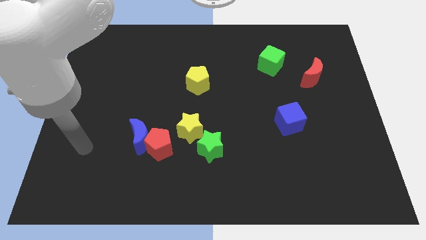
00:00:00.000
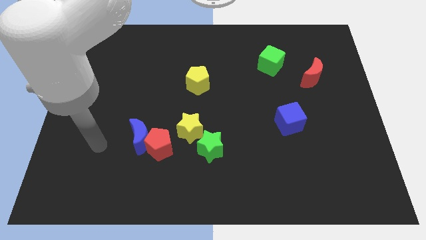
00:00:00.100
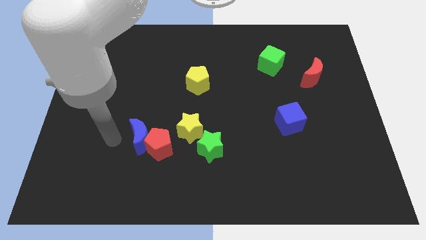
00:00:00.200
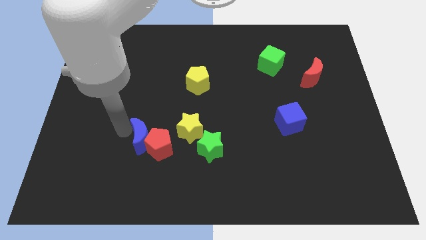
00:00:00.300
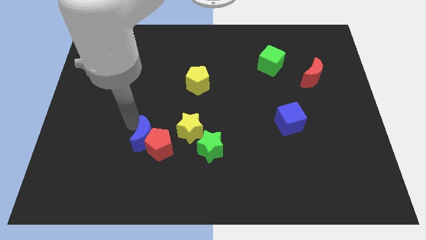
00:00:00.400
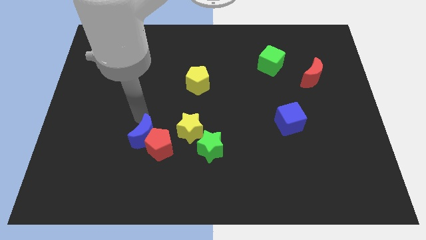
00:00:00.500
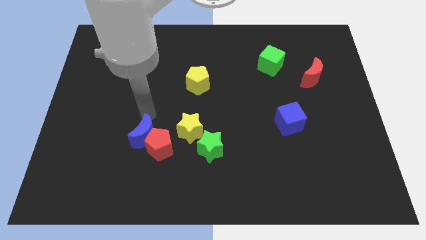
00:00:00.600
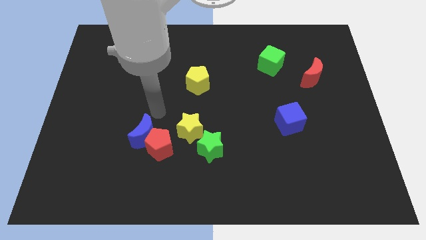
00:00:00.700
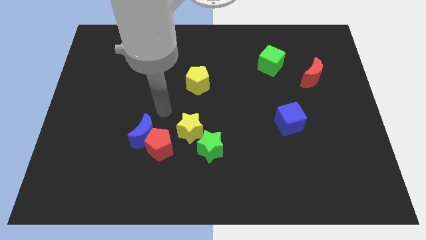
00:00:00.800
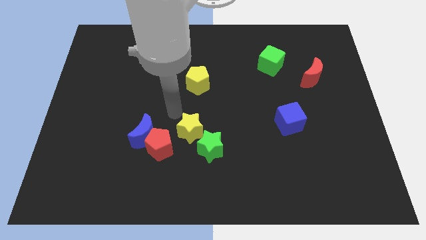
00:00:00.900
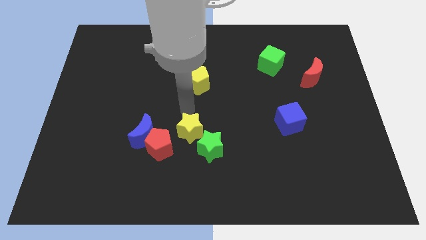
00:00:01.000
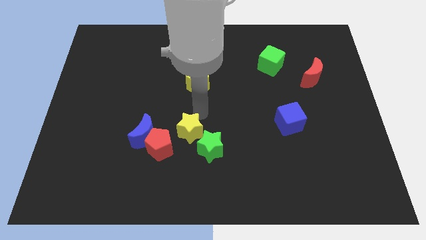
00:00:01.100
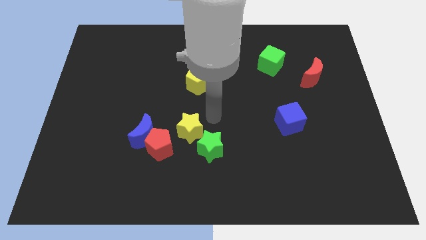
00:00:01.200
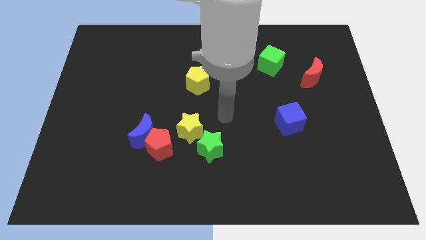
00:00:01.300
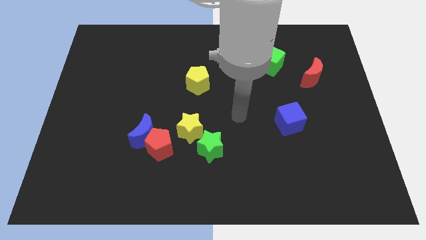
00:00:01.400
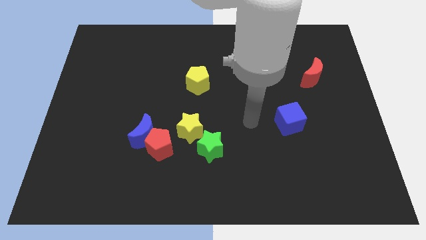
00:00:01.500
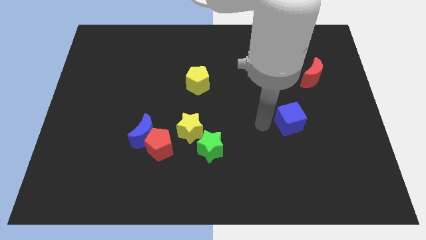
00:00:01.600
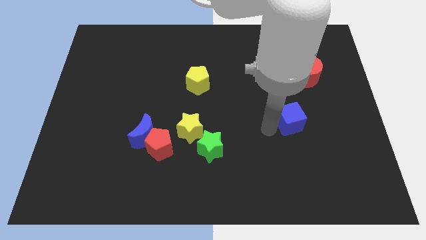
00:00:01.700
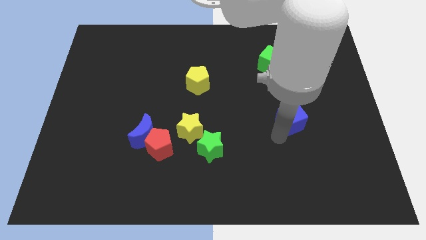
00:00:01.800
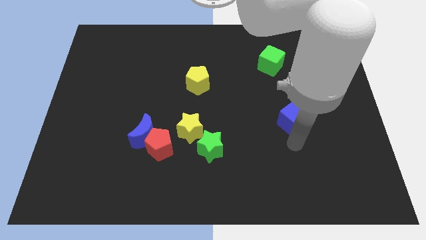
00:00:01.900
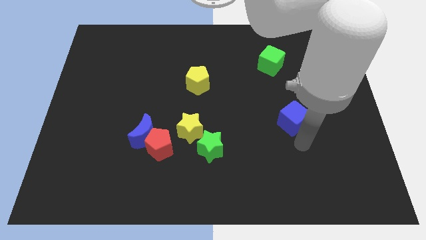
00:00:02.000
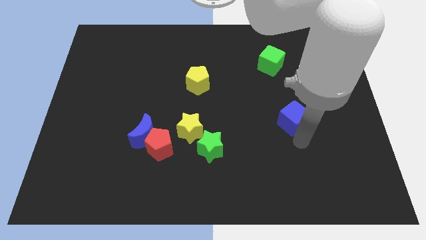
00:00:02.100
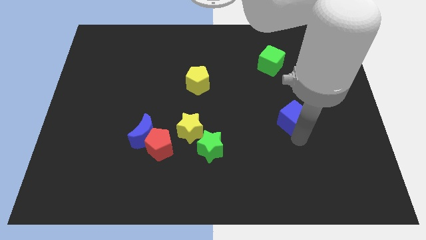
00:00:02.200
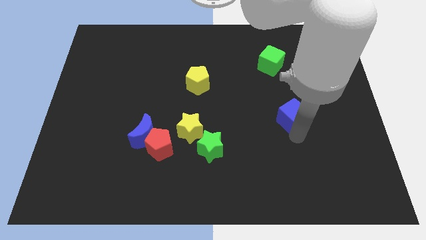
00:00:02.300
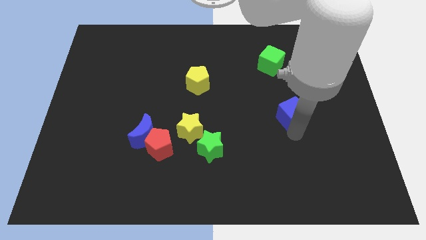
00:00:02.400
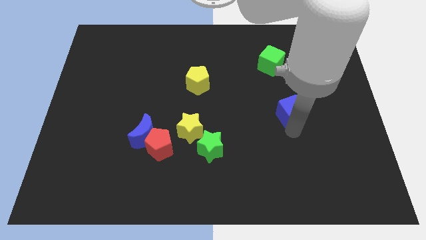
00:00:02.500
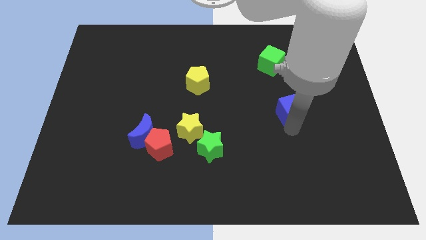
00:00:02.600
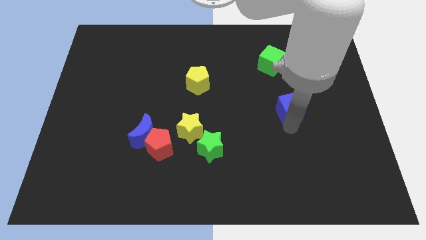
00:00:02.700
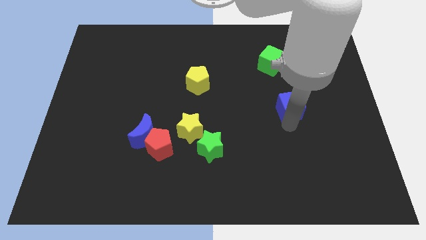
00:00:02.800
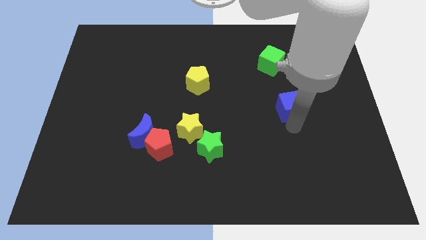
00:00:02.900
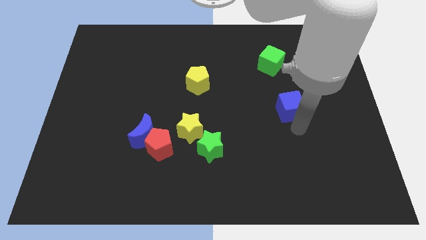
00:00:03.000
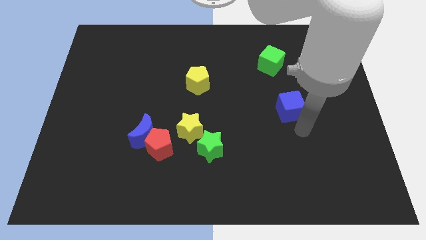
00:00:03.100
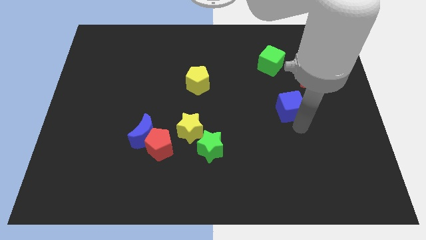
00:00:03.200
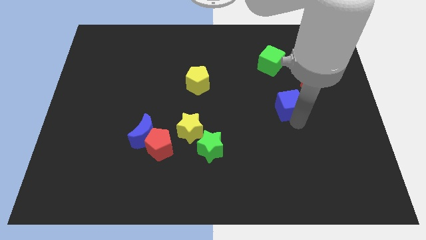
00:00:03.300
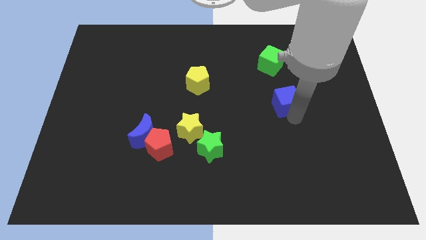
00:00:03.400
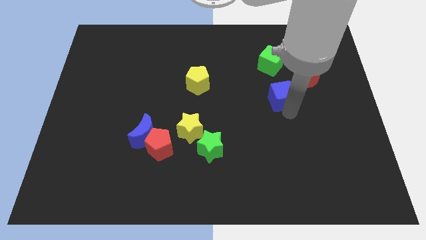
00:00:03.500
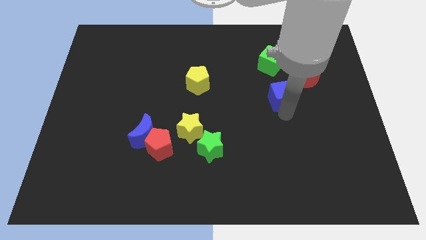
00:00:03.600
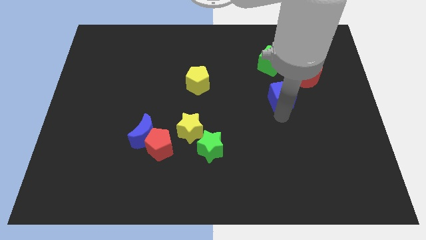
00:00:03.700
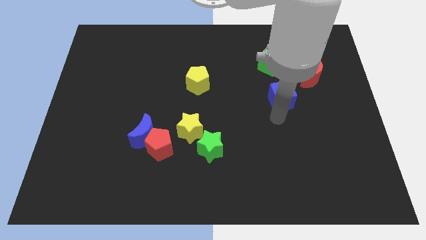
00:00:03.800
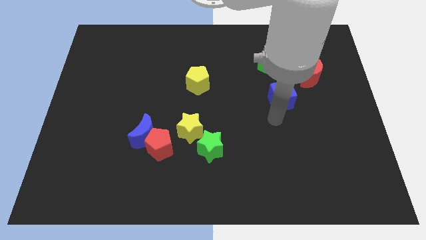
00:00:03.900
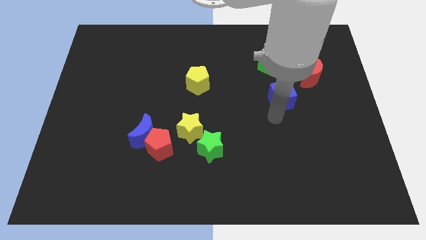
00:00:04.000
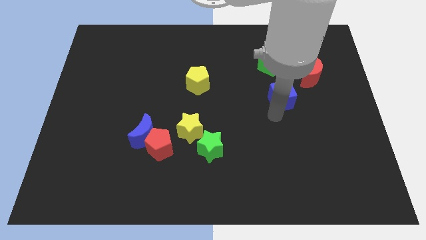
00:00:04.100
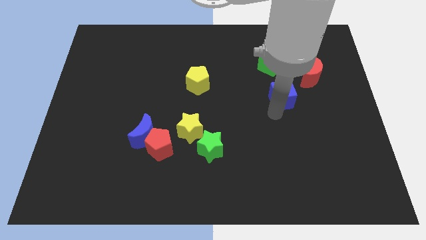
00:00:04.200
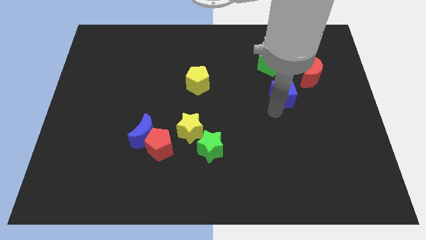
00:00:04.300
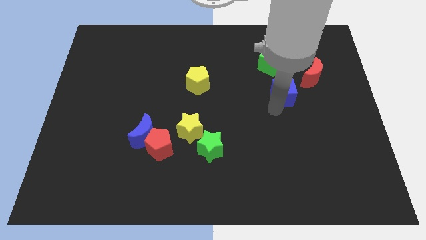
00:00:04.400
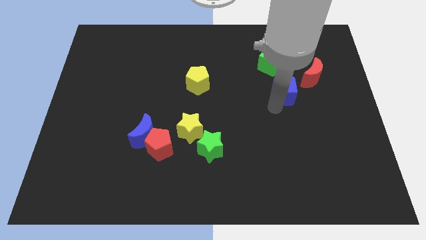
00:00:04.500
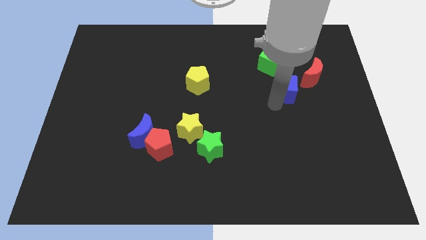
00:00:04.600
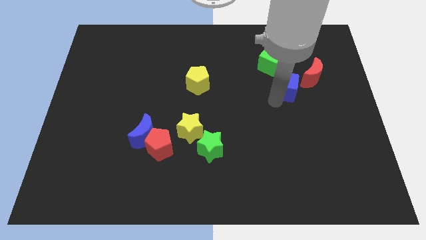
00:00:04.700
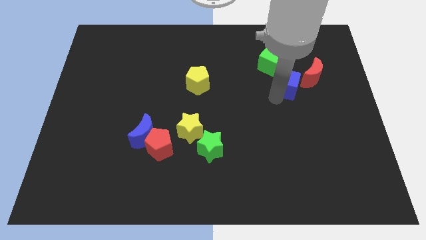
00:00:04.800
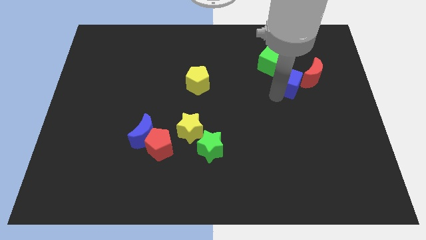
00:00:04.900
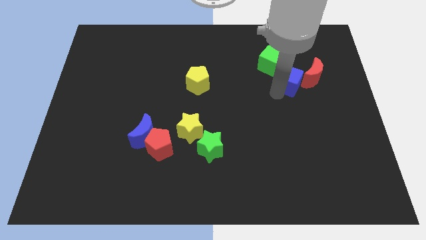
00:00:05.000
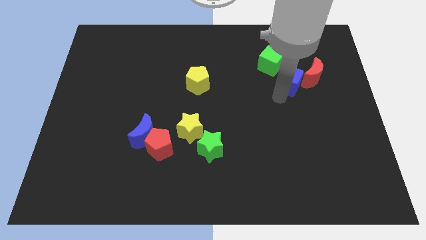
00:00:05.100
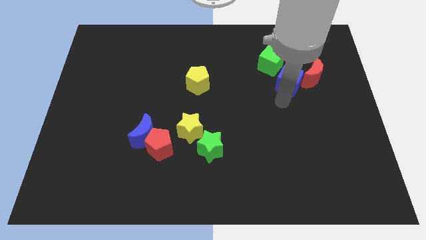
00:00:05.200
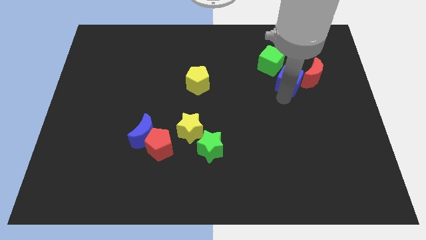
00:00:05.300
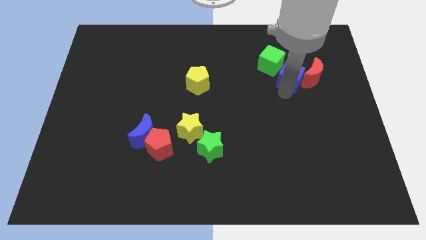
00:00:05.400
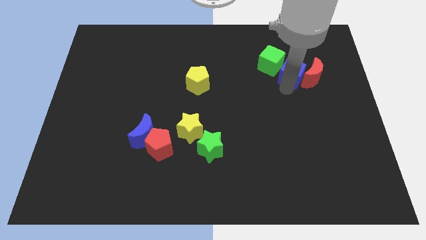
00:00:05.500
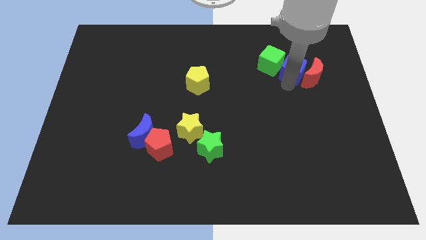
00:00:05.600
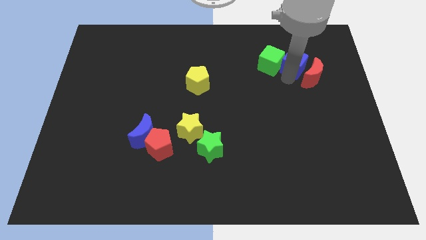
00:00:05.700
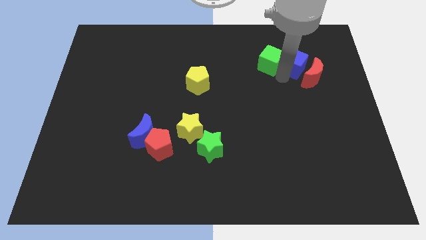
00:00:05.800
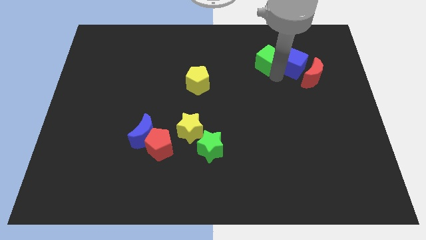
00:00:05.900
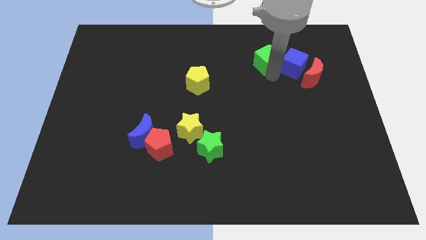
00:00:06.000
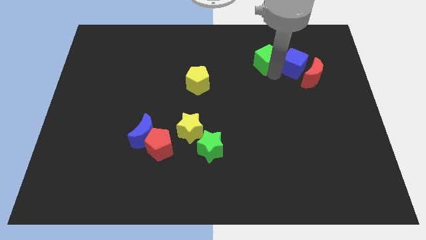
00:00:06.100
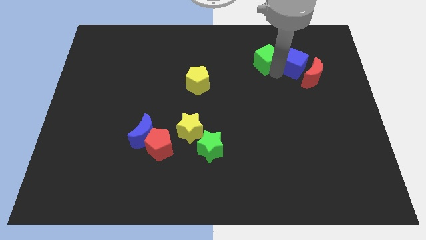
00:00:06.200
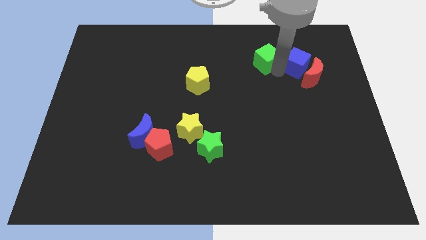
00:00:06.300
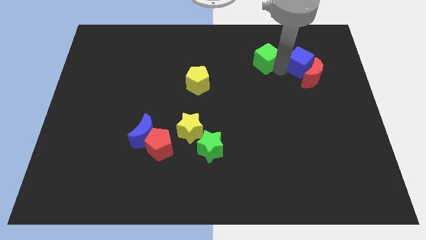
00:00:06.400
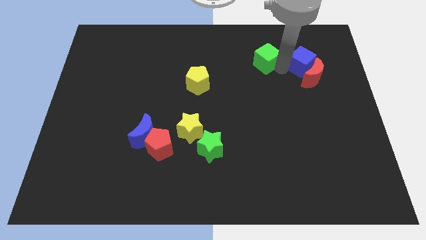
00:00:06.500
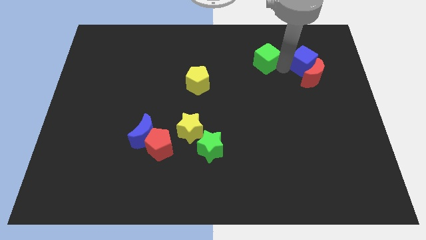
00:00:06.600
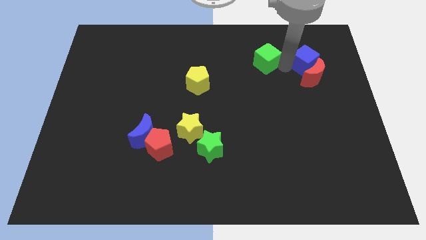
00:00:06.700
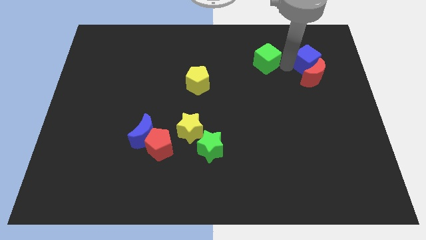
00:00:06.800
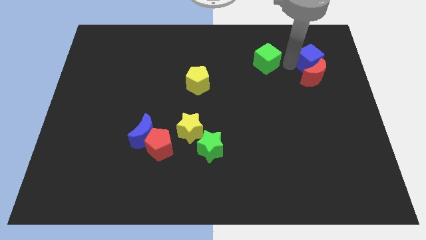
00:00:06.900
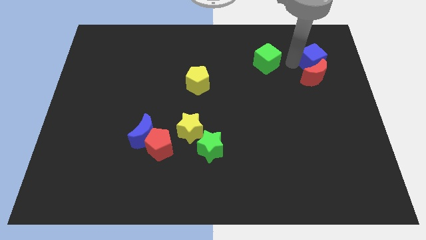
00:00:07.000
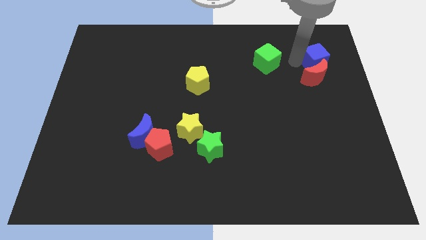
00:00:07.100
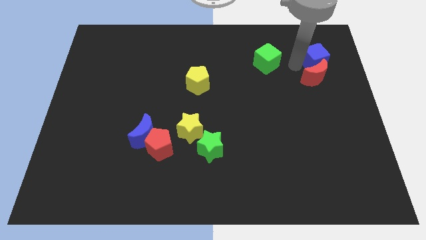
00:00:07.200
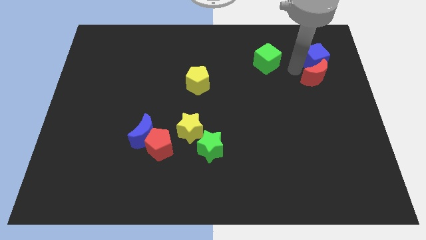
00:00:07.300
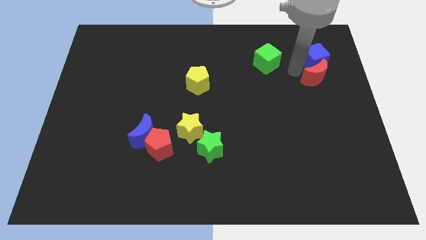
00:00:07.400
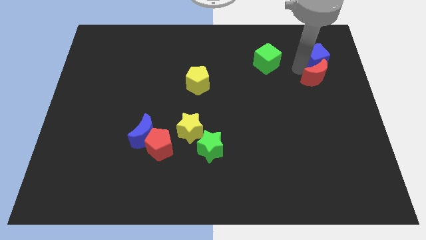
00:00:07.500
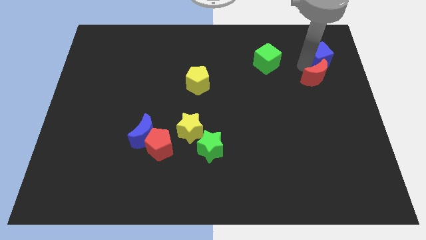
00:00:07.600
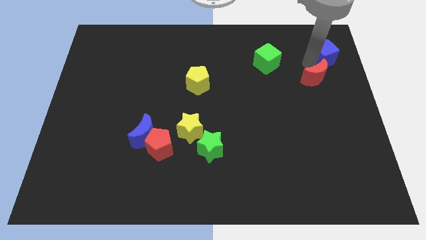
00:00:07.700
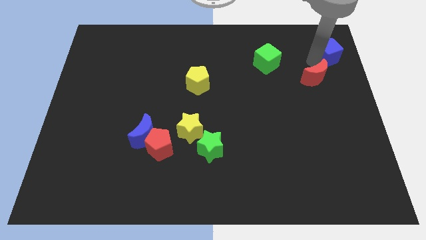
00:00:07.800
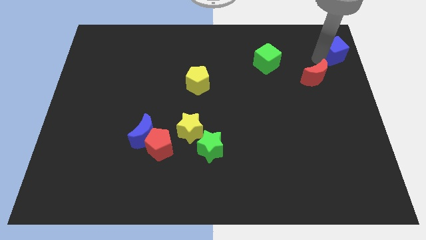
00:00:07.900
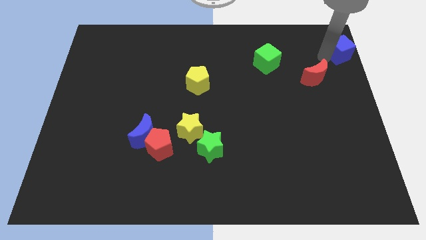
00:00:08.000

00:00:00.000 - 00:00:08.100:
push the blue cube to the top right
